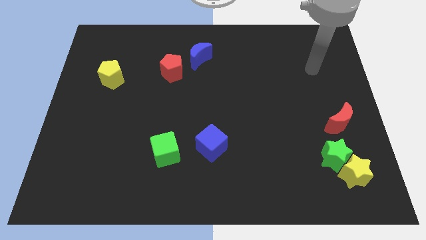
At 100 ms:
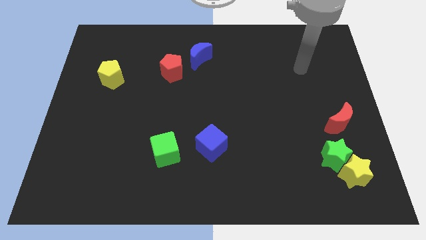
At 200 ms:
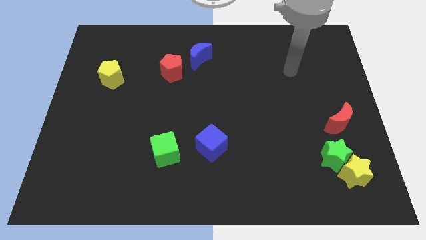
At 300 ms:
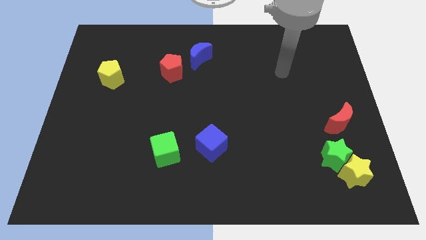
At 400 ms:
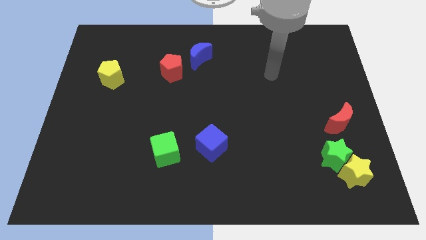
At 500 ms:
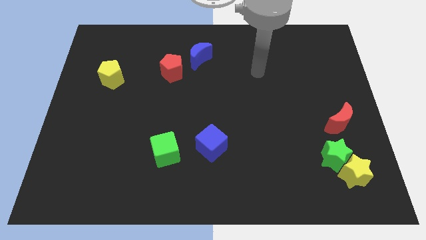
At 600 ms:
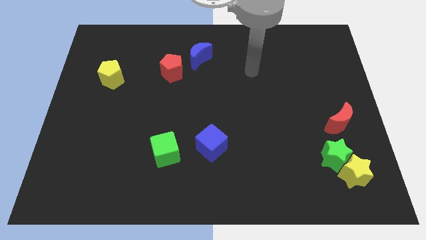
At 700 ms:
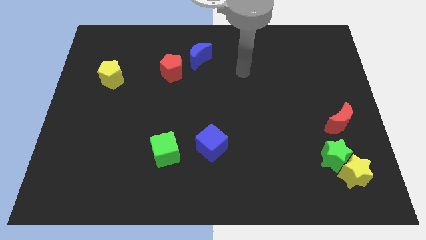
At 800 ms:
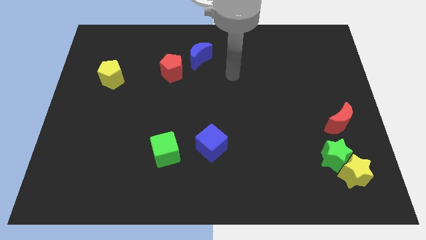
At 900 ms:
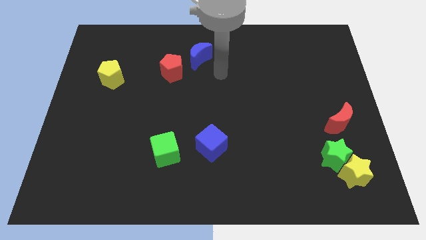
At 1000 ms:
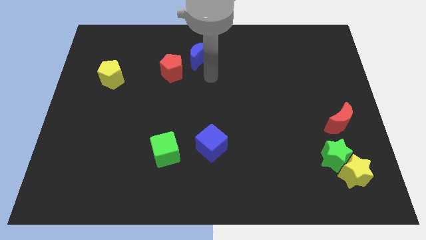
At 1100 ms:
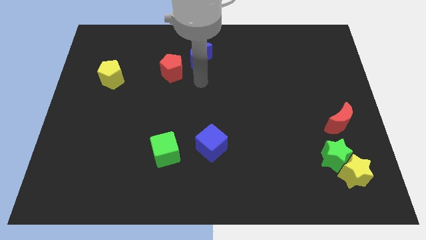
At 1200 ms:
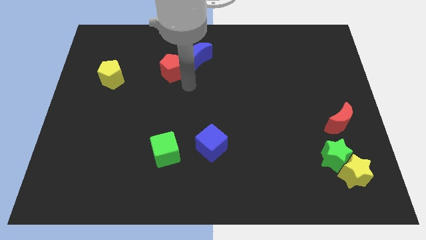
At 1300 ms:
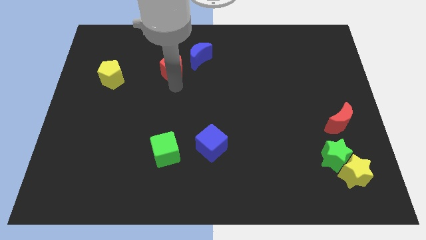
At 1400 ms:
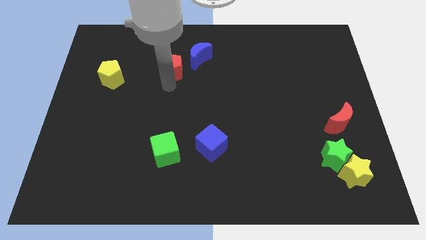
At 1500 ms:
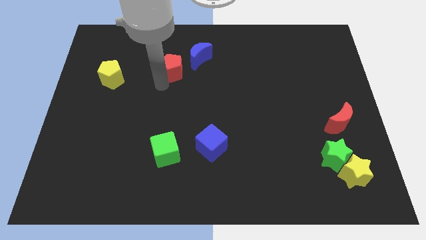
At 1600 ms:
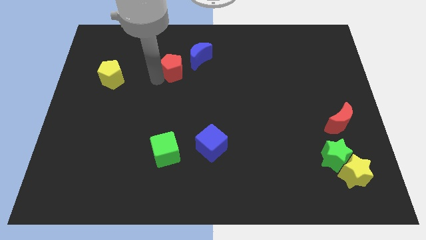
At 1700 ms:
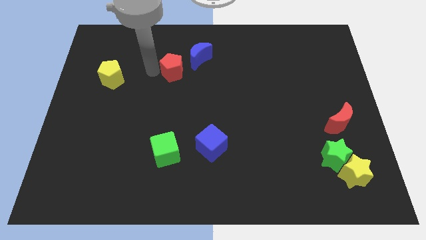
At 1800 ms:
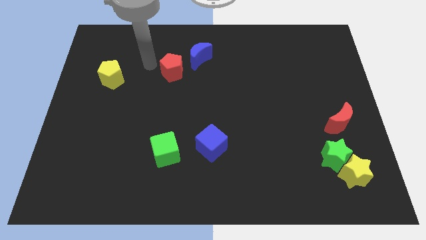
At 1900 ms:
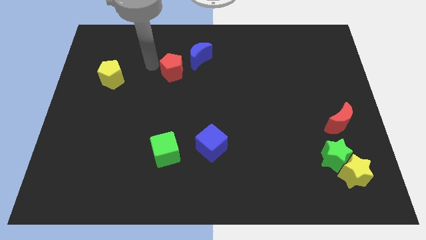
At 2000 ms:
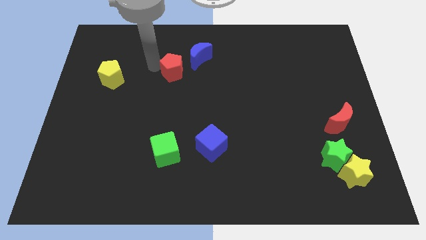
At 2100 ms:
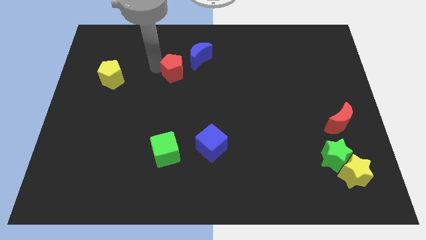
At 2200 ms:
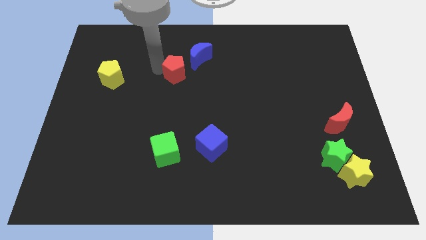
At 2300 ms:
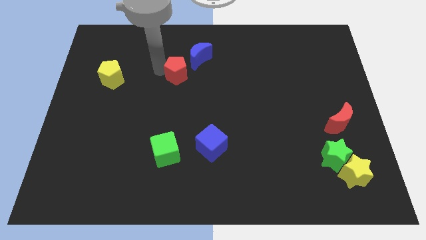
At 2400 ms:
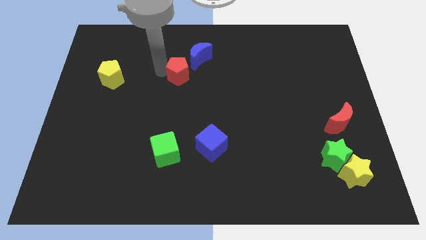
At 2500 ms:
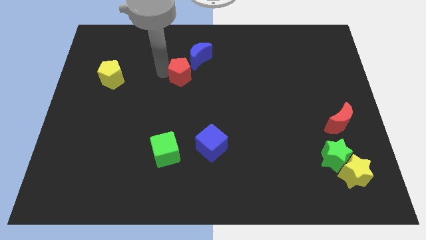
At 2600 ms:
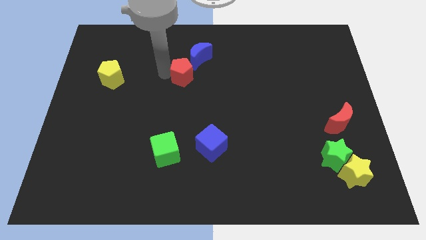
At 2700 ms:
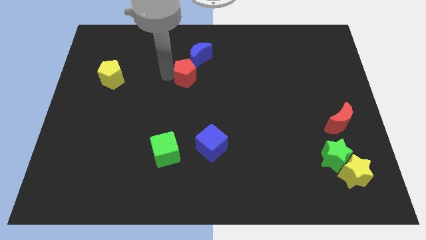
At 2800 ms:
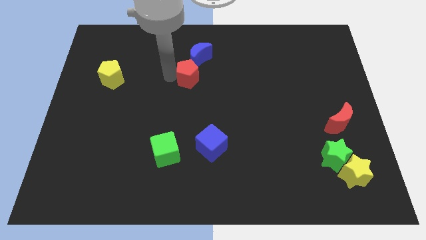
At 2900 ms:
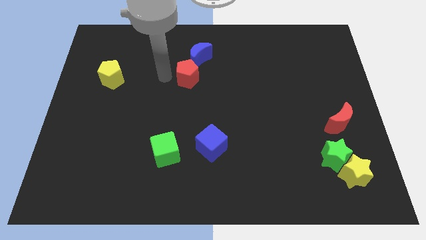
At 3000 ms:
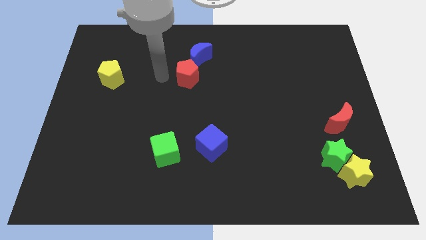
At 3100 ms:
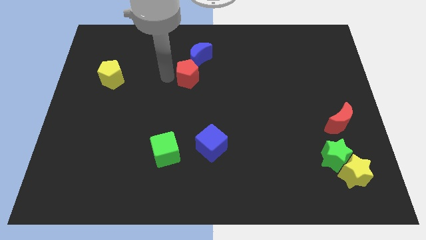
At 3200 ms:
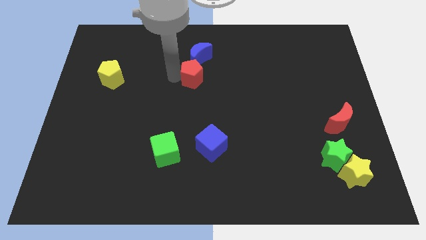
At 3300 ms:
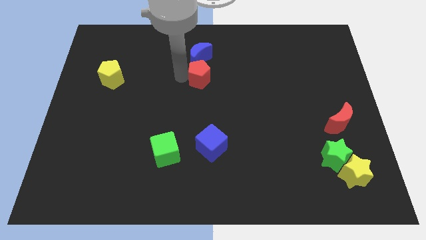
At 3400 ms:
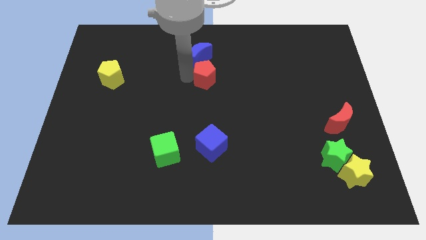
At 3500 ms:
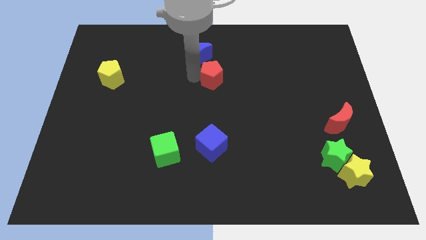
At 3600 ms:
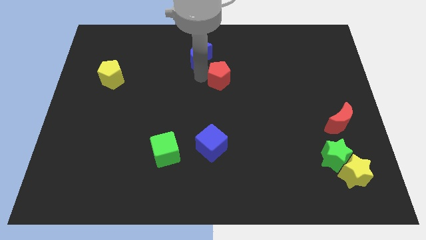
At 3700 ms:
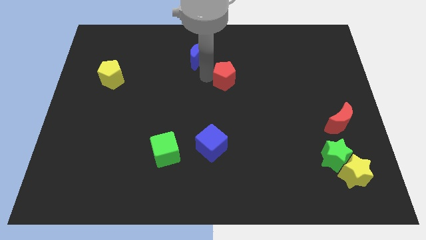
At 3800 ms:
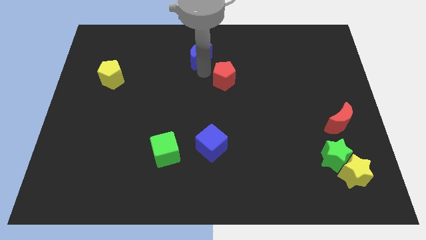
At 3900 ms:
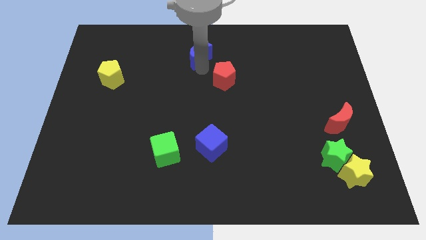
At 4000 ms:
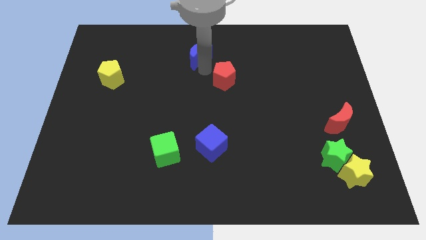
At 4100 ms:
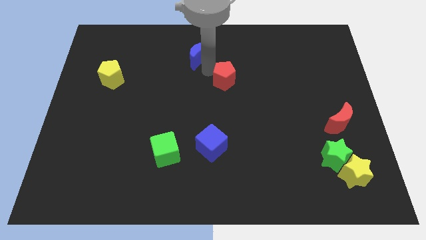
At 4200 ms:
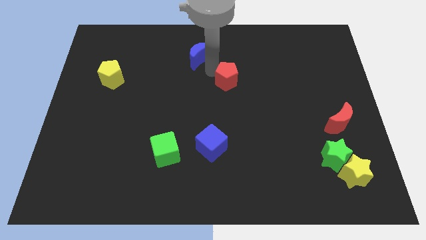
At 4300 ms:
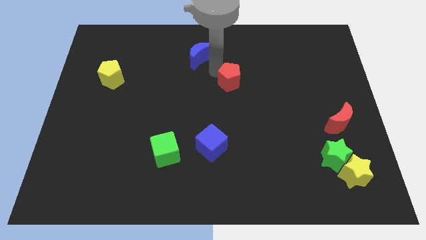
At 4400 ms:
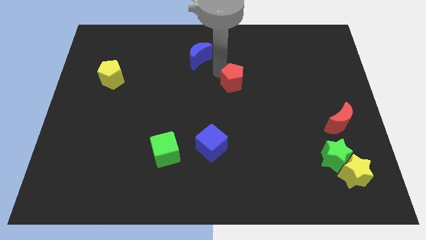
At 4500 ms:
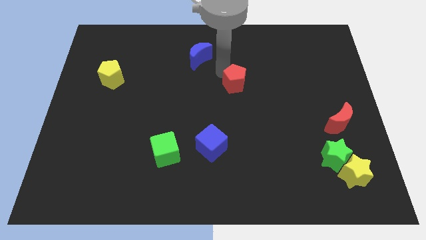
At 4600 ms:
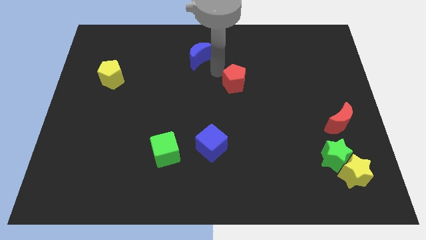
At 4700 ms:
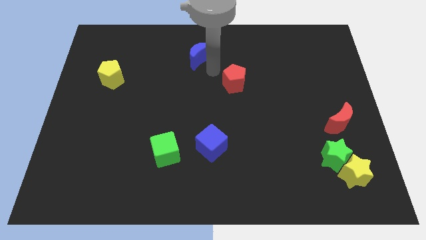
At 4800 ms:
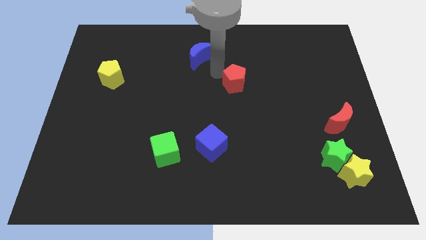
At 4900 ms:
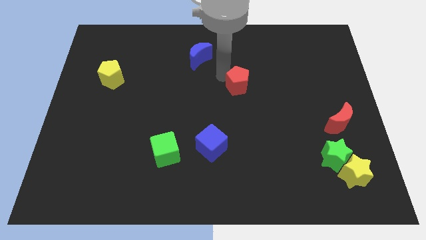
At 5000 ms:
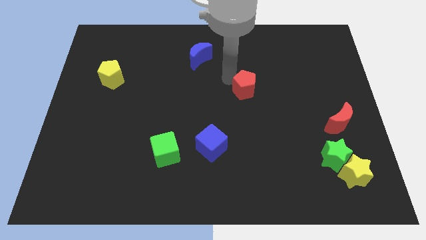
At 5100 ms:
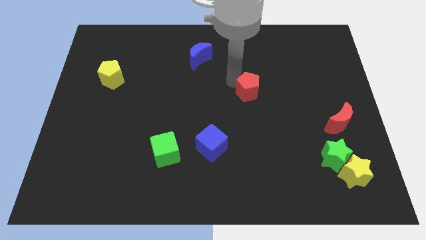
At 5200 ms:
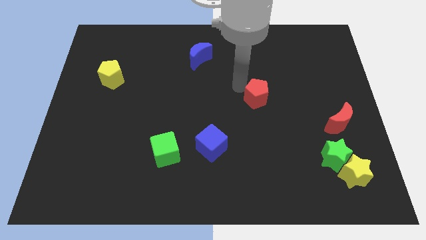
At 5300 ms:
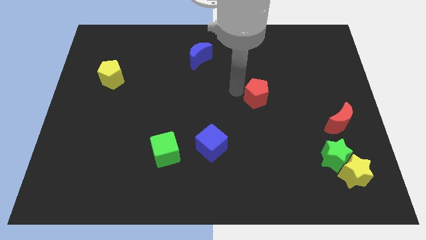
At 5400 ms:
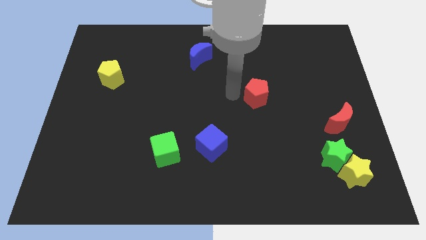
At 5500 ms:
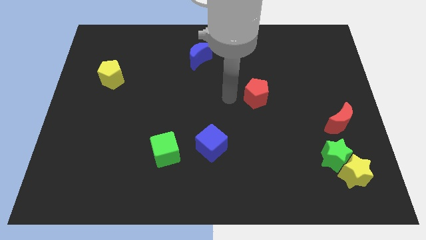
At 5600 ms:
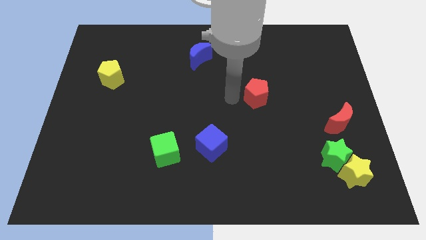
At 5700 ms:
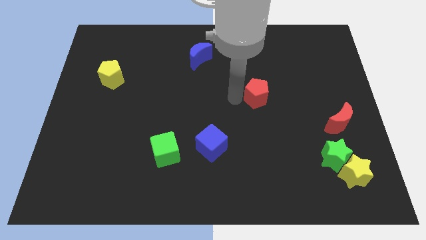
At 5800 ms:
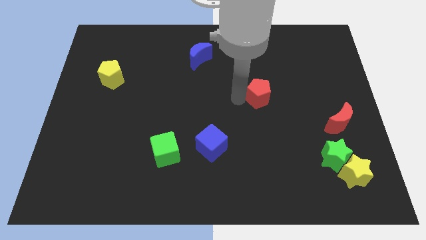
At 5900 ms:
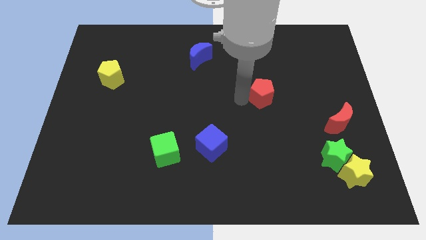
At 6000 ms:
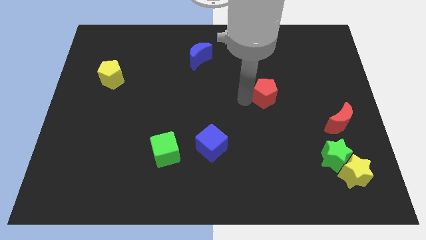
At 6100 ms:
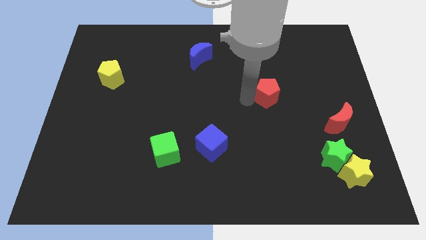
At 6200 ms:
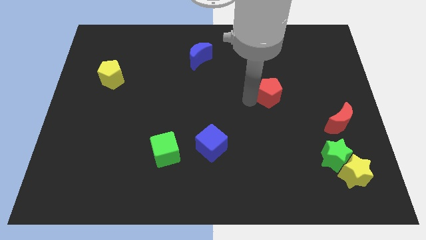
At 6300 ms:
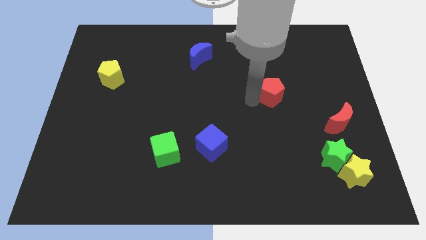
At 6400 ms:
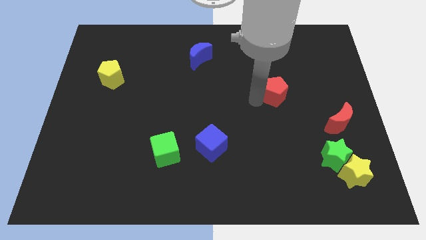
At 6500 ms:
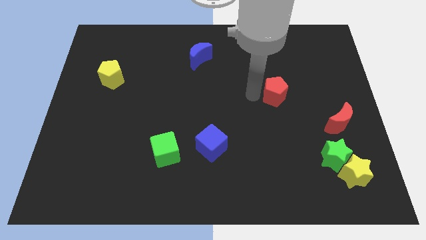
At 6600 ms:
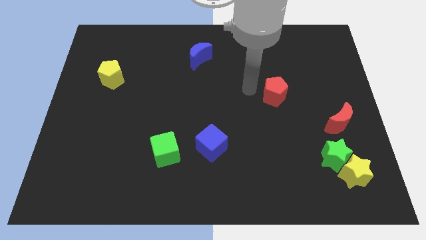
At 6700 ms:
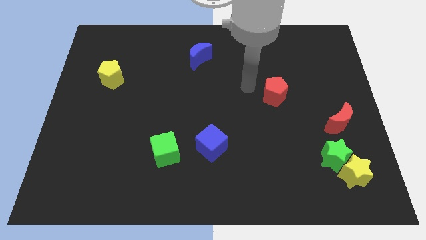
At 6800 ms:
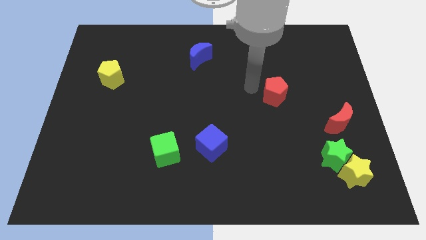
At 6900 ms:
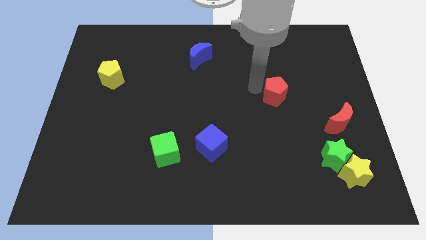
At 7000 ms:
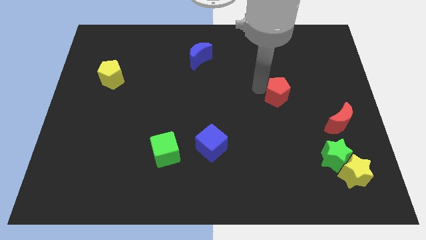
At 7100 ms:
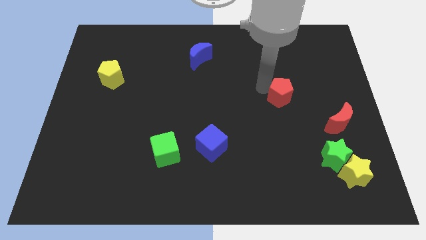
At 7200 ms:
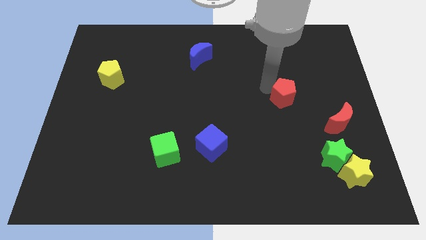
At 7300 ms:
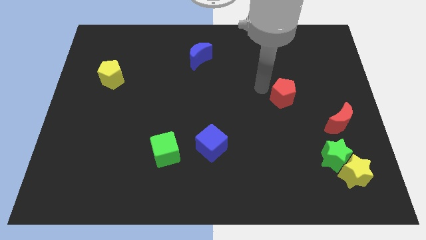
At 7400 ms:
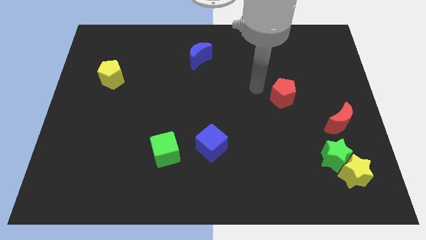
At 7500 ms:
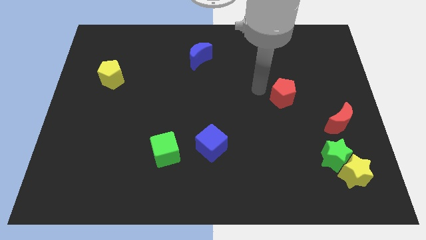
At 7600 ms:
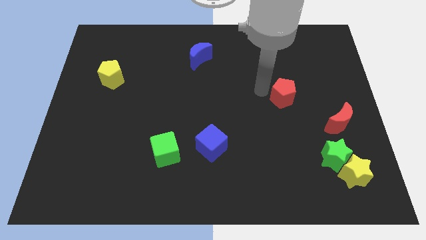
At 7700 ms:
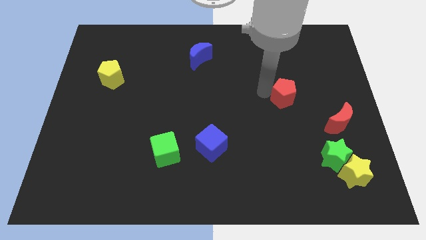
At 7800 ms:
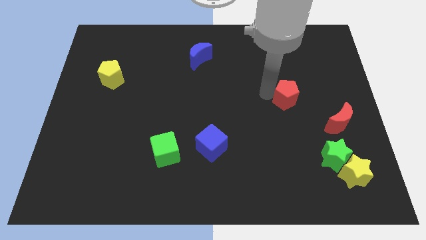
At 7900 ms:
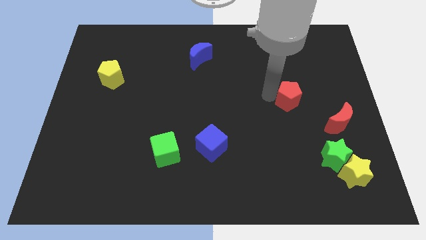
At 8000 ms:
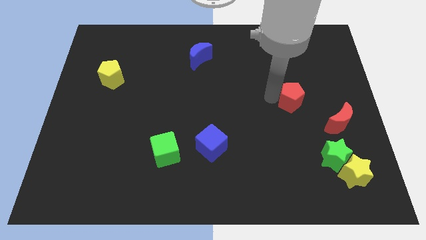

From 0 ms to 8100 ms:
push the red pentagon diagonally up and to the left of the red moon
